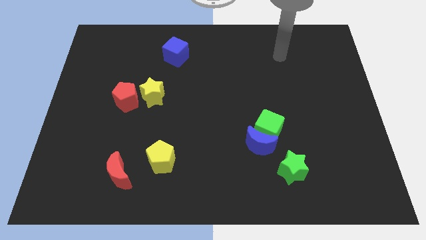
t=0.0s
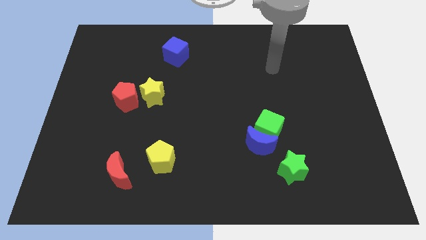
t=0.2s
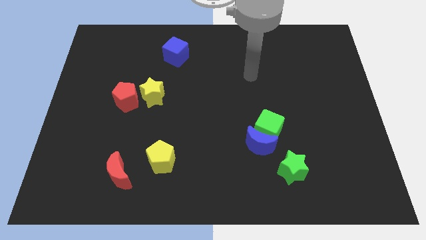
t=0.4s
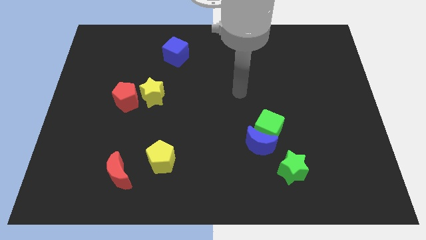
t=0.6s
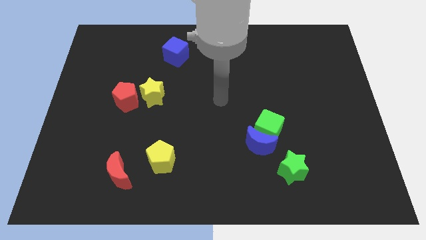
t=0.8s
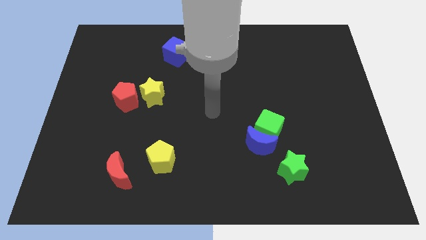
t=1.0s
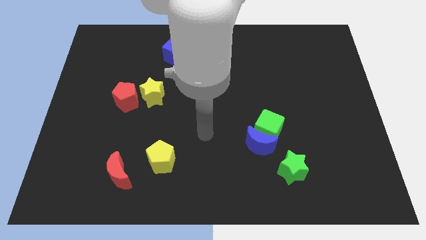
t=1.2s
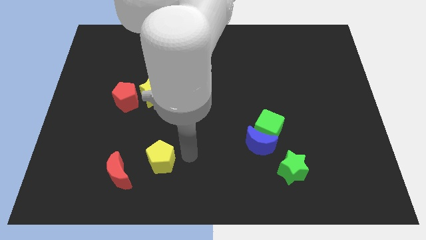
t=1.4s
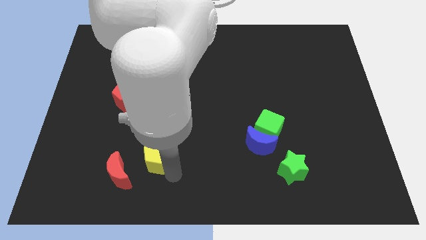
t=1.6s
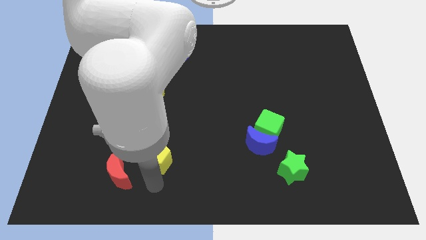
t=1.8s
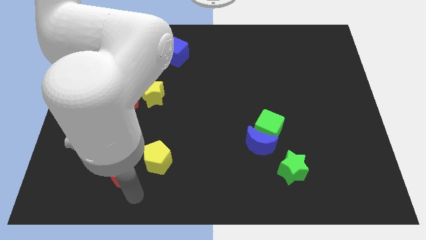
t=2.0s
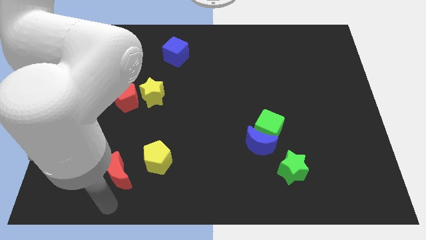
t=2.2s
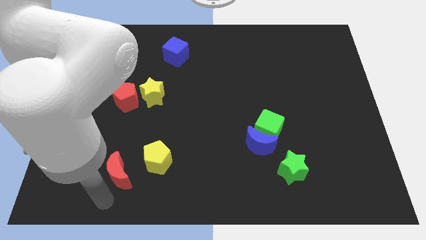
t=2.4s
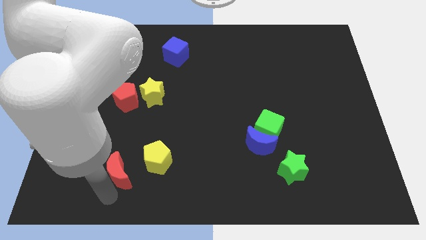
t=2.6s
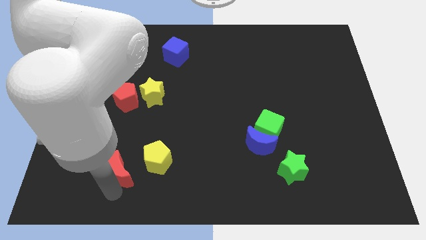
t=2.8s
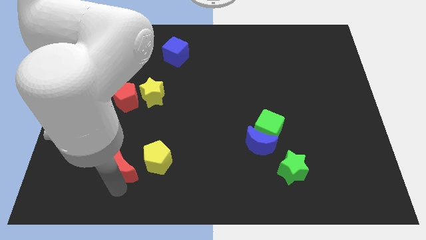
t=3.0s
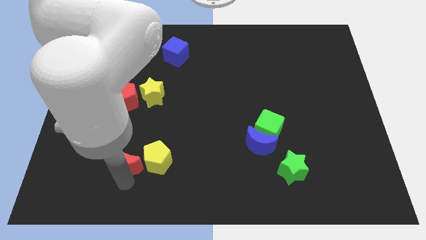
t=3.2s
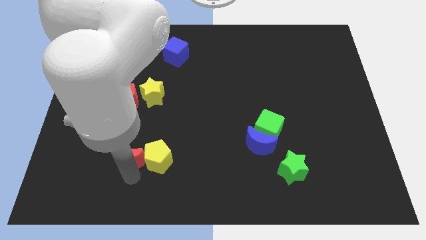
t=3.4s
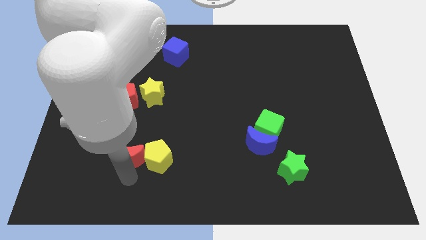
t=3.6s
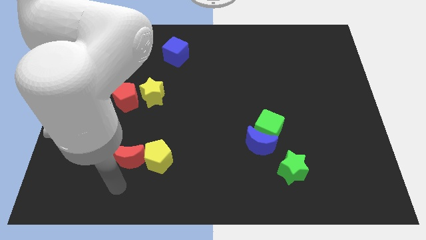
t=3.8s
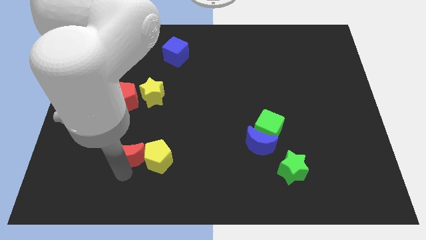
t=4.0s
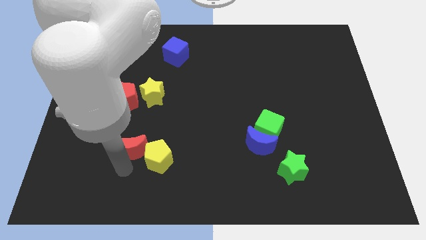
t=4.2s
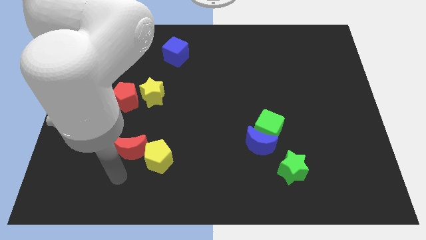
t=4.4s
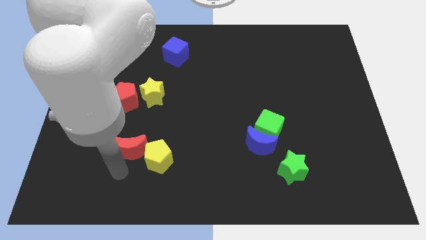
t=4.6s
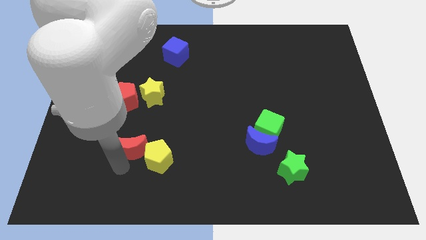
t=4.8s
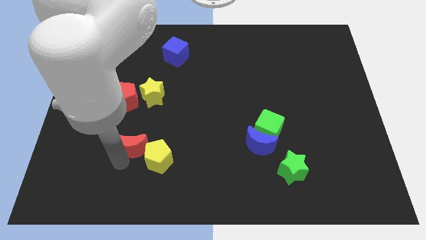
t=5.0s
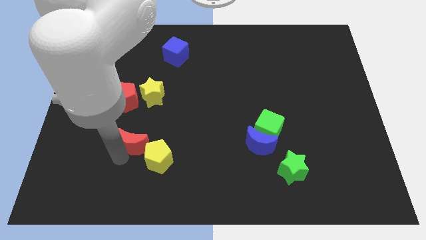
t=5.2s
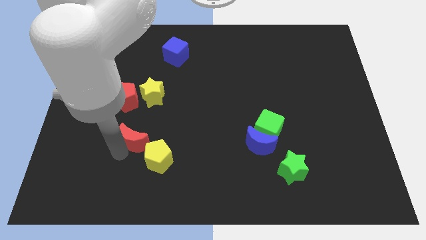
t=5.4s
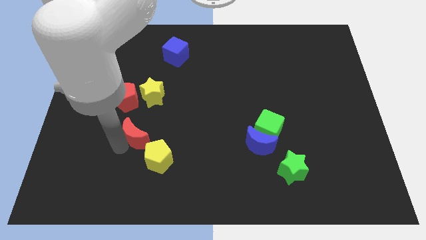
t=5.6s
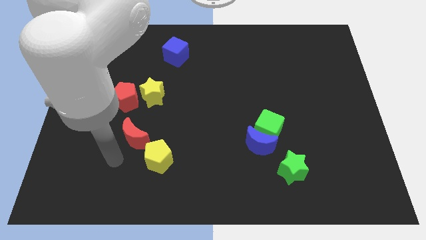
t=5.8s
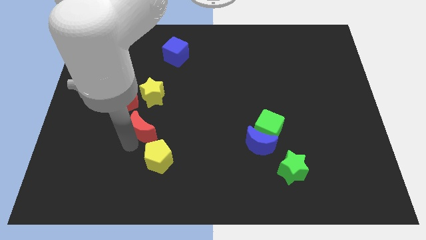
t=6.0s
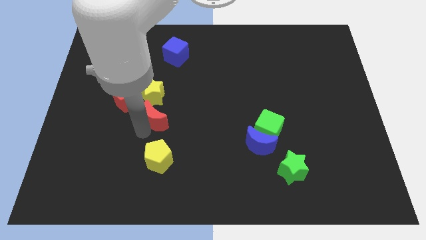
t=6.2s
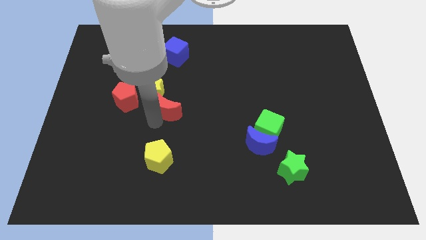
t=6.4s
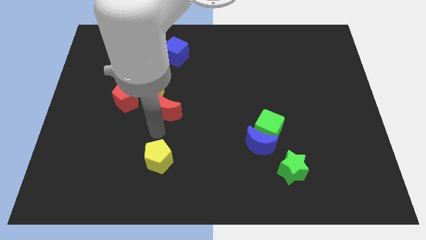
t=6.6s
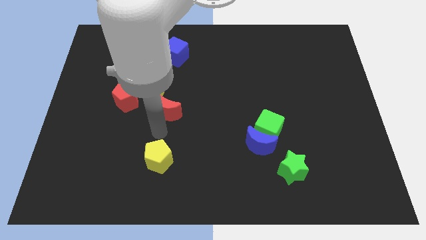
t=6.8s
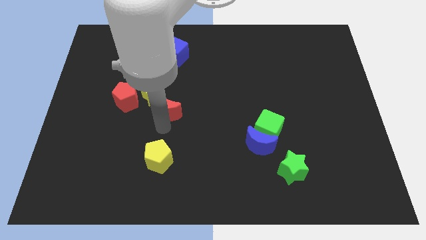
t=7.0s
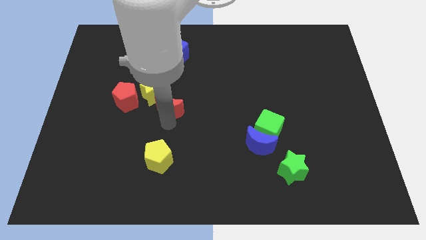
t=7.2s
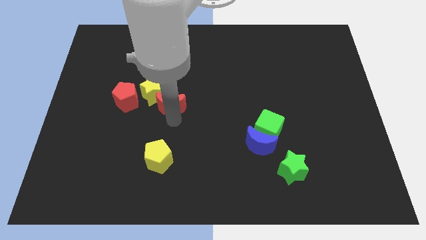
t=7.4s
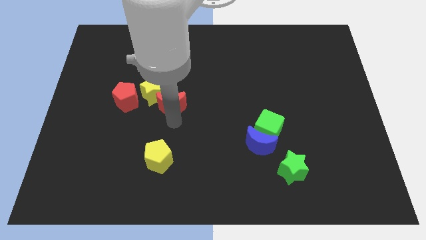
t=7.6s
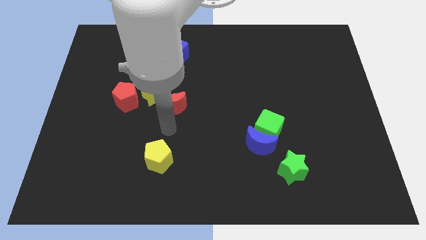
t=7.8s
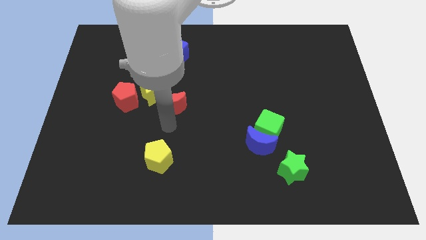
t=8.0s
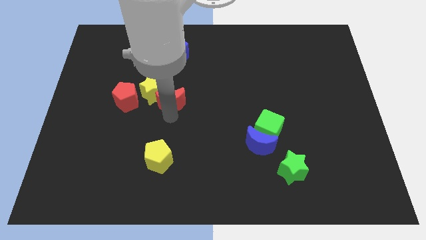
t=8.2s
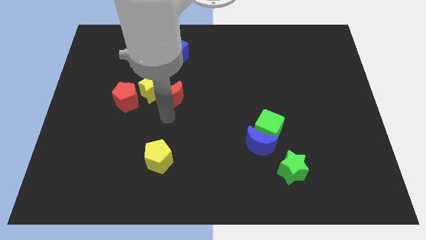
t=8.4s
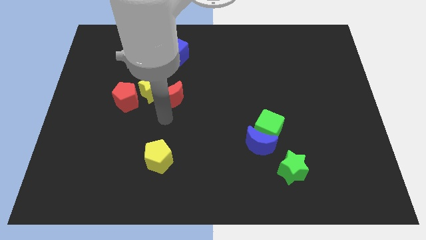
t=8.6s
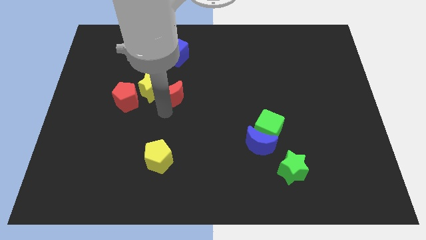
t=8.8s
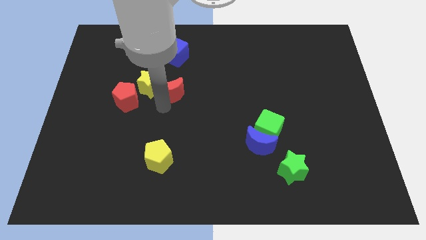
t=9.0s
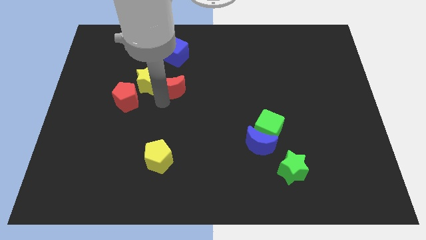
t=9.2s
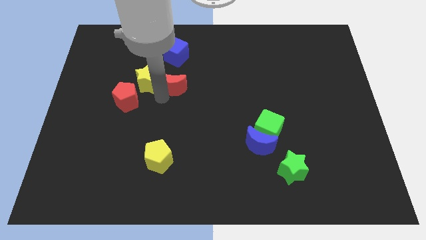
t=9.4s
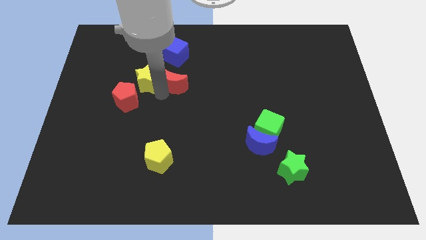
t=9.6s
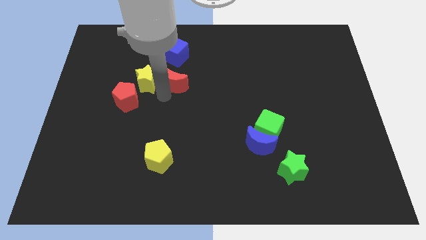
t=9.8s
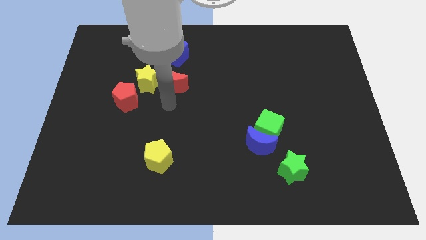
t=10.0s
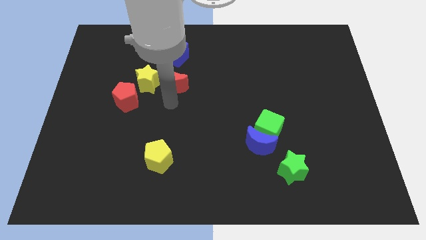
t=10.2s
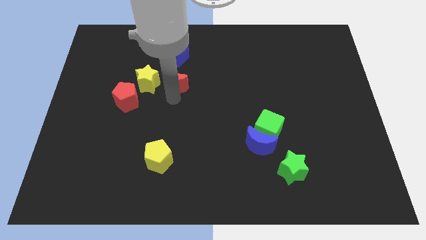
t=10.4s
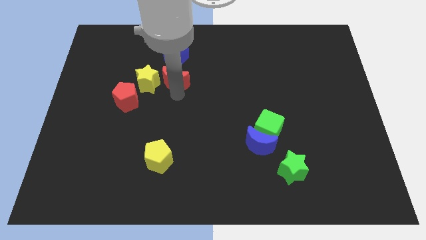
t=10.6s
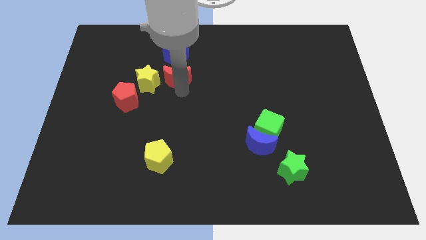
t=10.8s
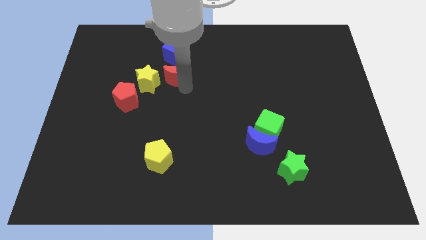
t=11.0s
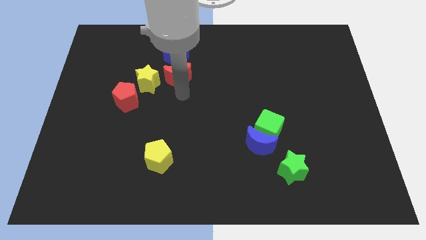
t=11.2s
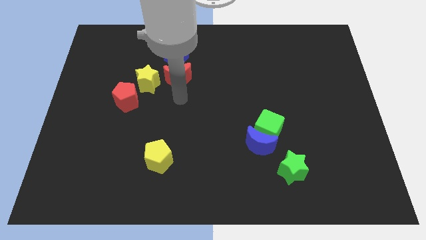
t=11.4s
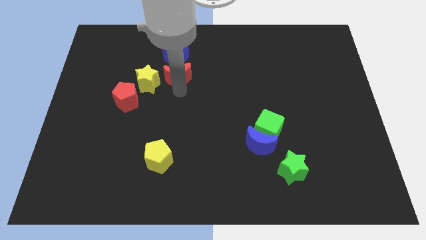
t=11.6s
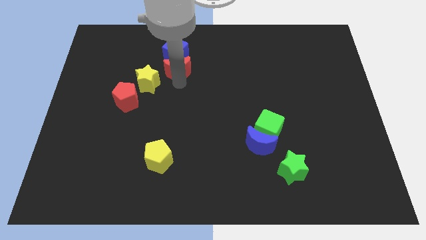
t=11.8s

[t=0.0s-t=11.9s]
push the red moon towards the blue cube

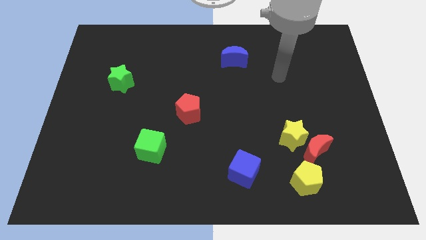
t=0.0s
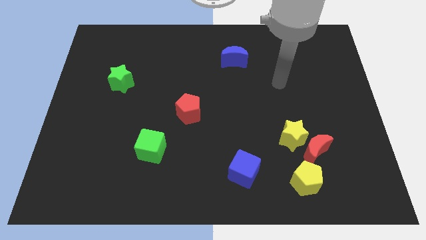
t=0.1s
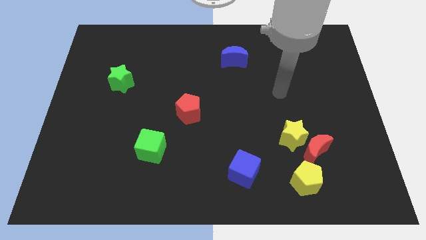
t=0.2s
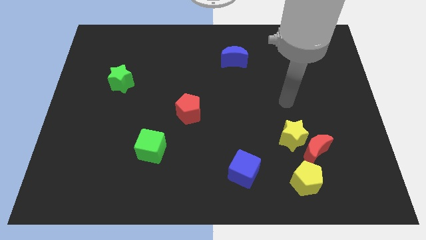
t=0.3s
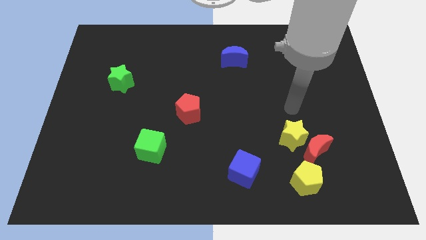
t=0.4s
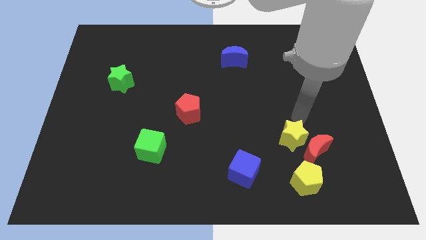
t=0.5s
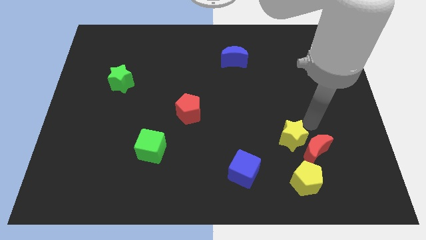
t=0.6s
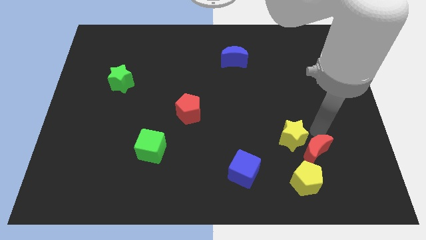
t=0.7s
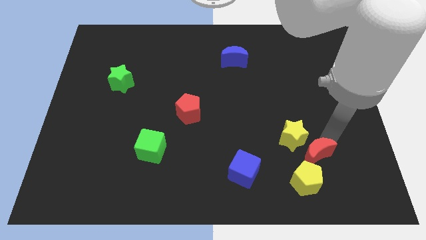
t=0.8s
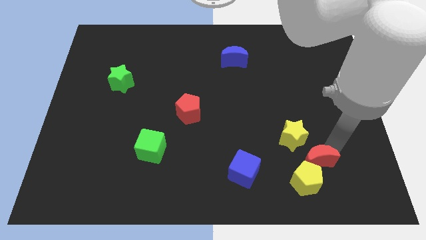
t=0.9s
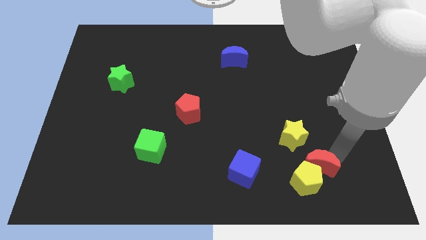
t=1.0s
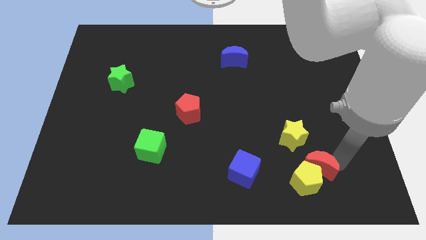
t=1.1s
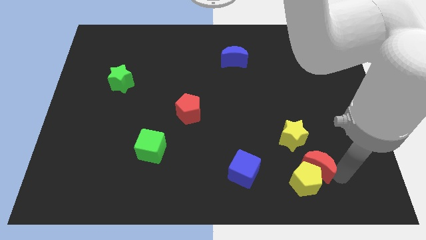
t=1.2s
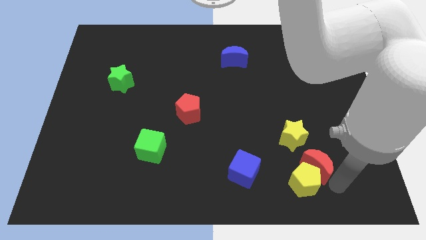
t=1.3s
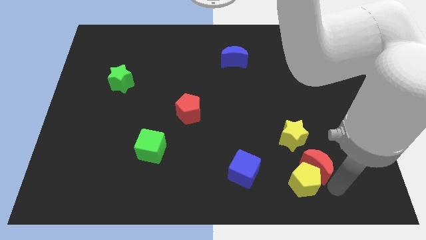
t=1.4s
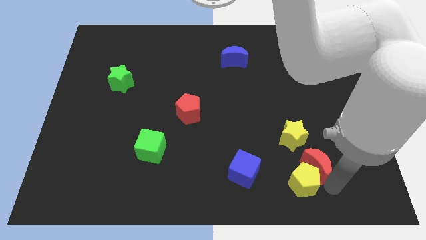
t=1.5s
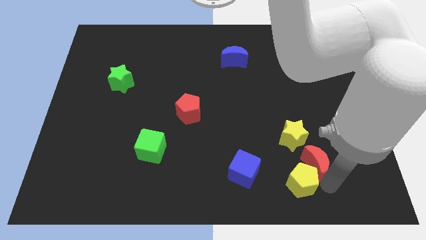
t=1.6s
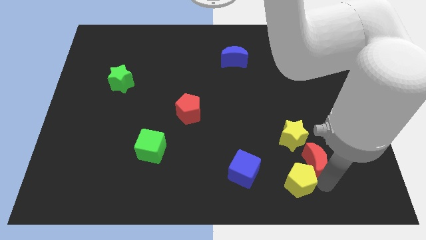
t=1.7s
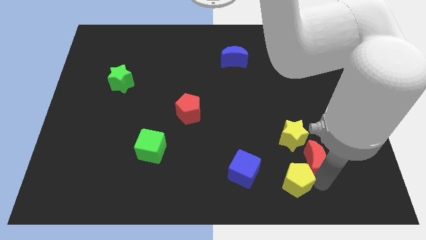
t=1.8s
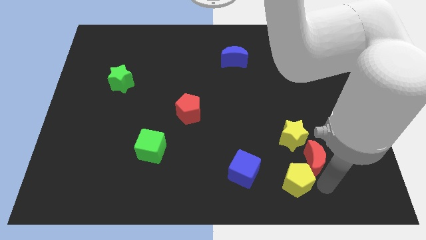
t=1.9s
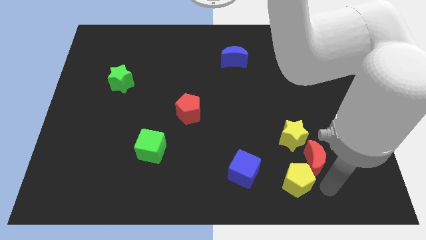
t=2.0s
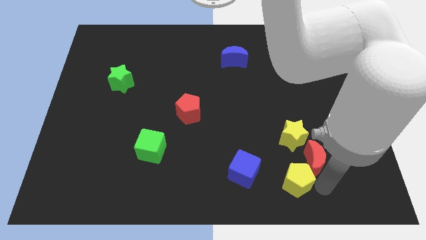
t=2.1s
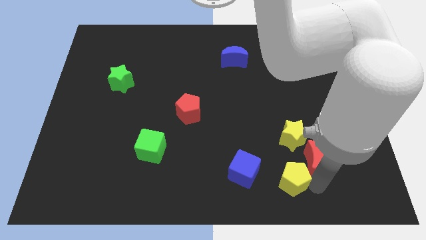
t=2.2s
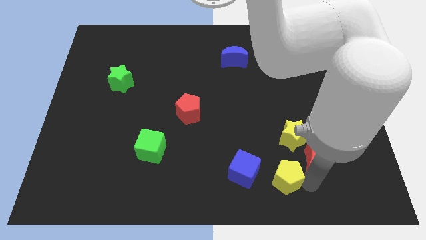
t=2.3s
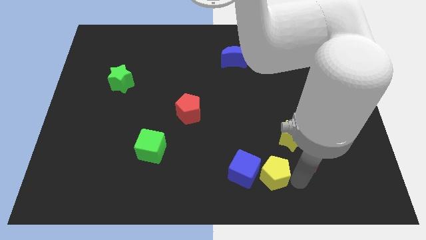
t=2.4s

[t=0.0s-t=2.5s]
move the yellow pentagon towards the blue cube
